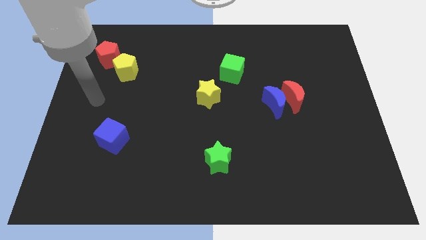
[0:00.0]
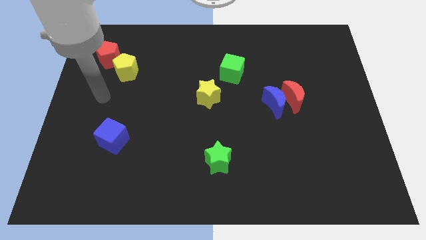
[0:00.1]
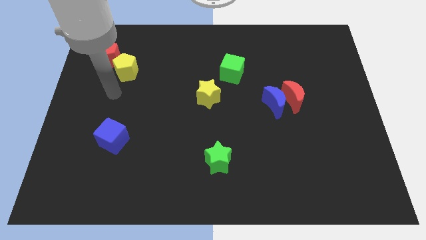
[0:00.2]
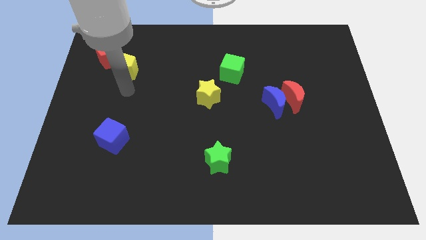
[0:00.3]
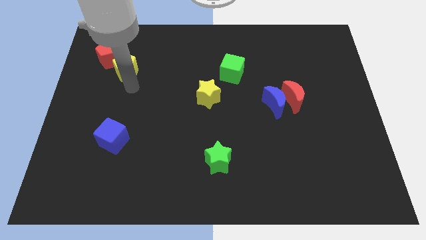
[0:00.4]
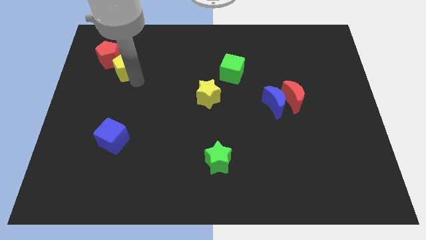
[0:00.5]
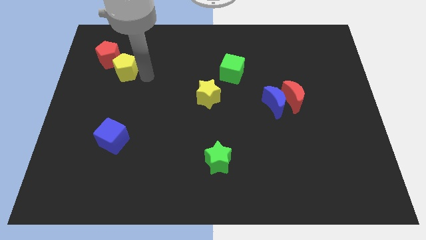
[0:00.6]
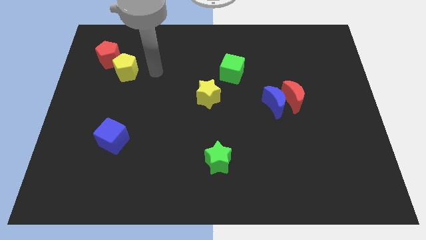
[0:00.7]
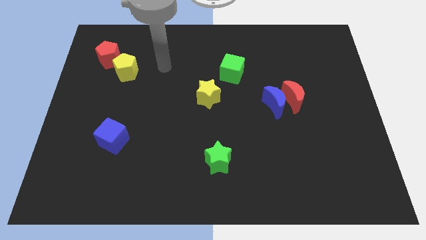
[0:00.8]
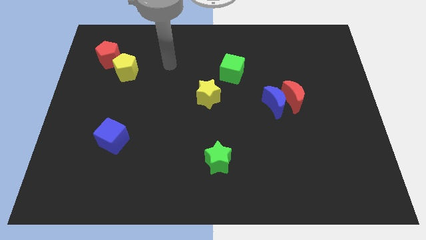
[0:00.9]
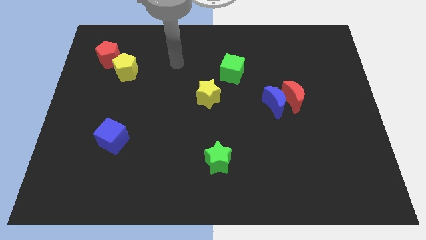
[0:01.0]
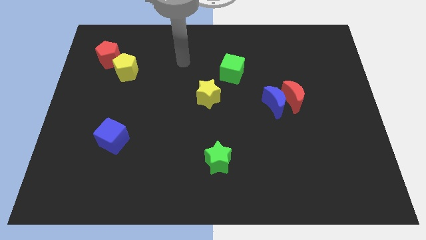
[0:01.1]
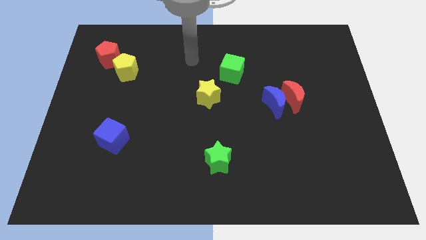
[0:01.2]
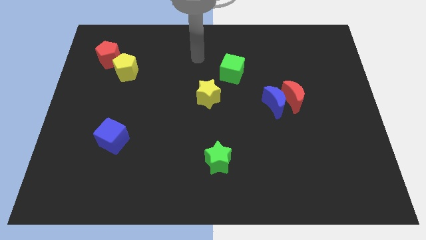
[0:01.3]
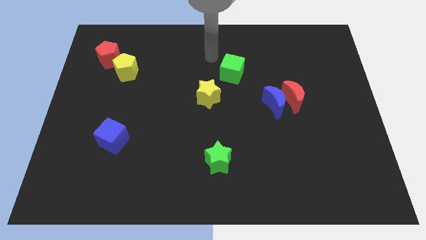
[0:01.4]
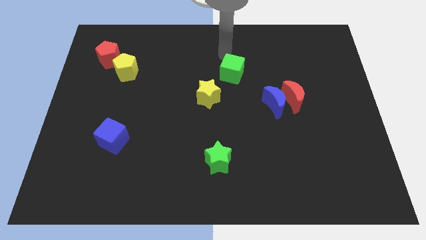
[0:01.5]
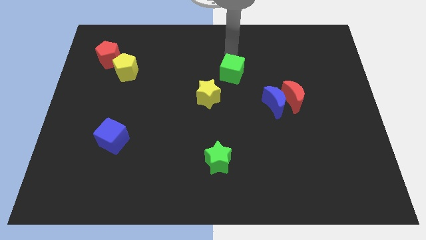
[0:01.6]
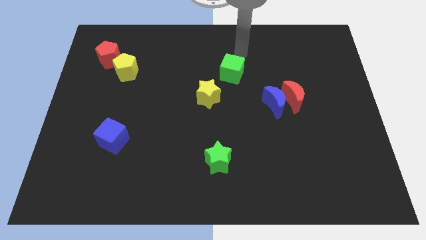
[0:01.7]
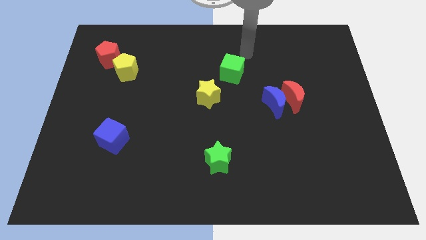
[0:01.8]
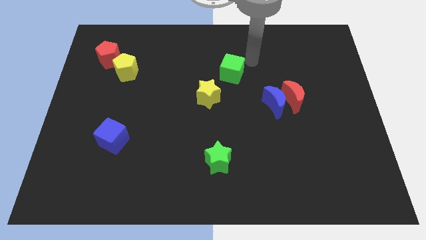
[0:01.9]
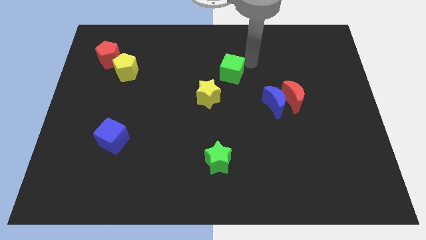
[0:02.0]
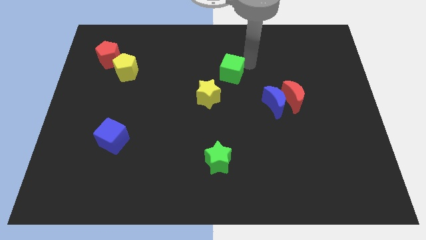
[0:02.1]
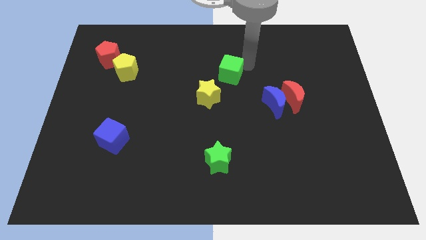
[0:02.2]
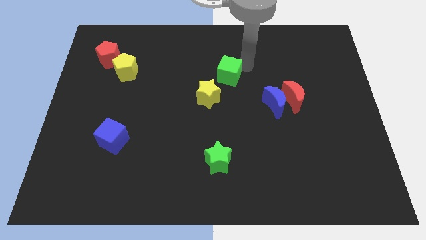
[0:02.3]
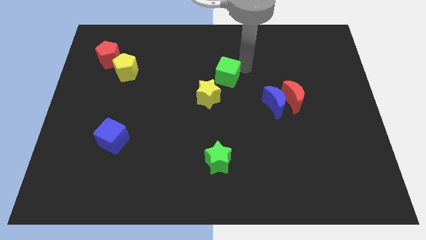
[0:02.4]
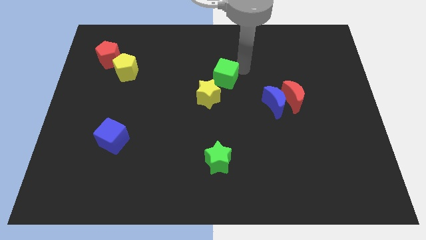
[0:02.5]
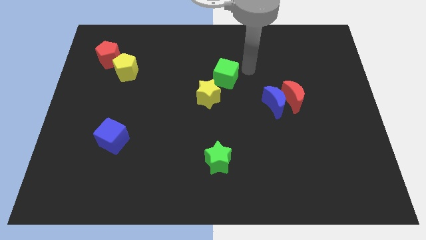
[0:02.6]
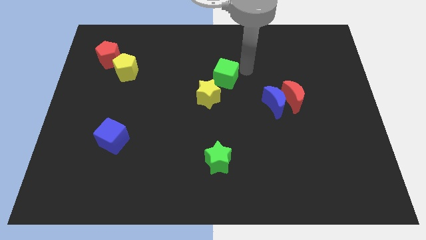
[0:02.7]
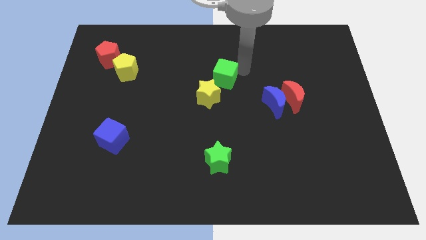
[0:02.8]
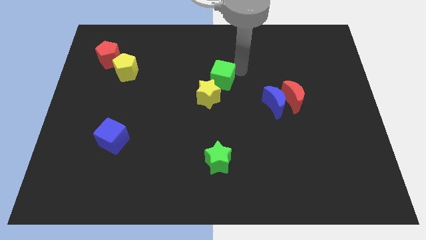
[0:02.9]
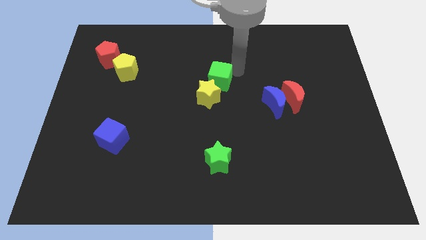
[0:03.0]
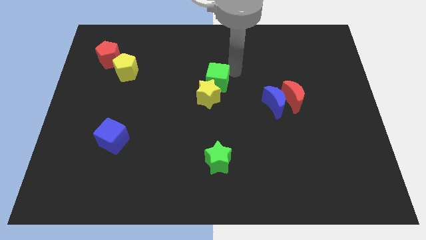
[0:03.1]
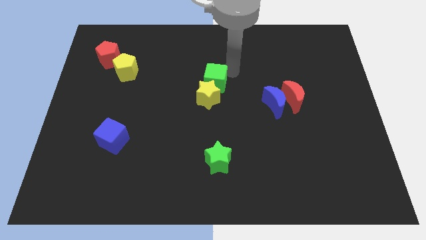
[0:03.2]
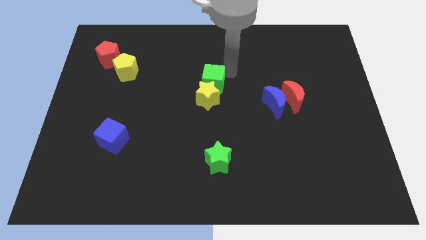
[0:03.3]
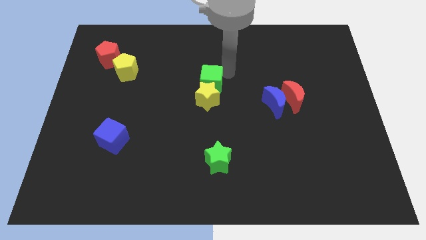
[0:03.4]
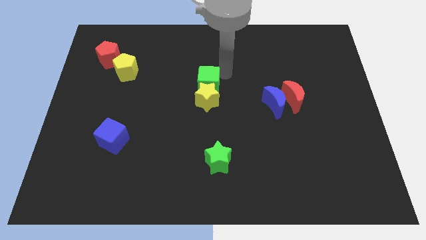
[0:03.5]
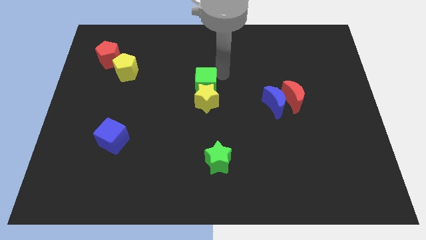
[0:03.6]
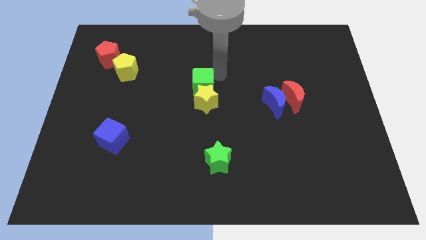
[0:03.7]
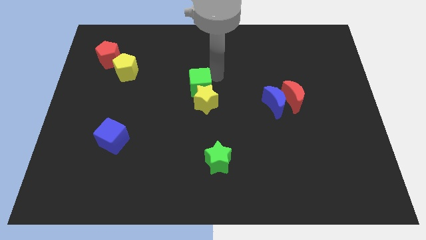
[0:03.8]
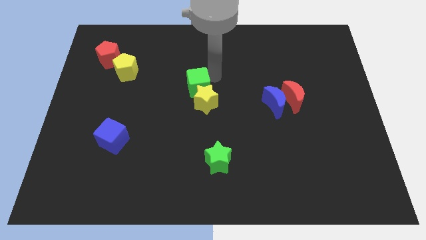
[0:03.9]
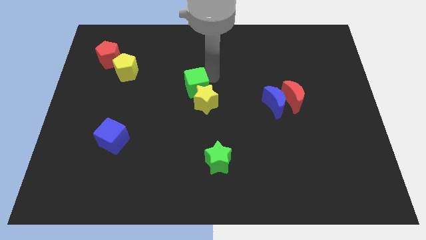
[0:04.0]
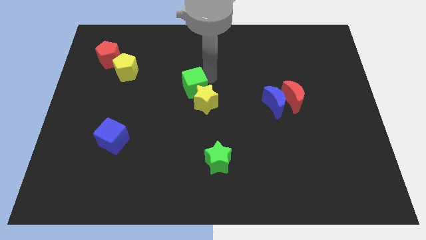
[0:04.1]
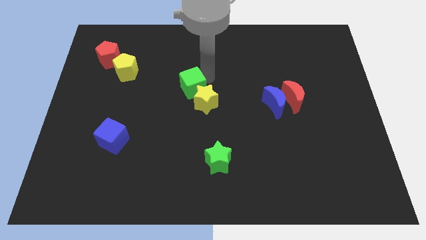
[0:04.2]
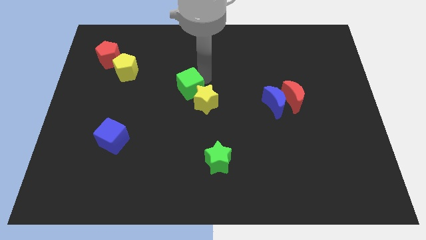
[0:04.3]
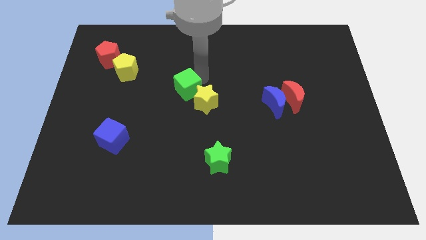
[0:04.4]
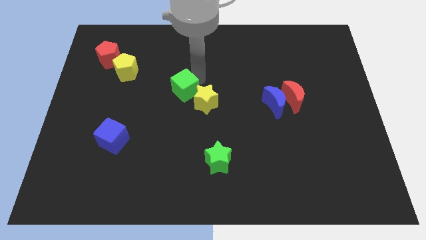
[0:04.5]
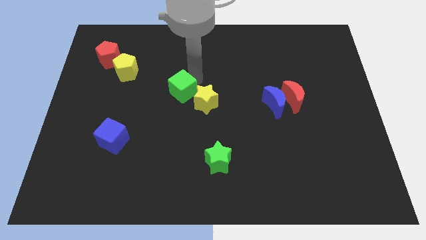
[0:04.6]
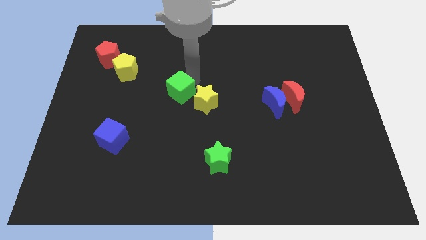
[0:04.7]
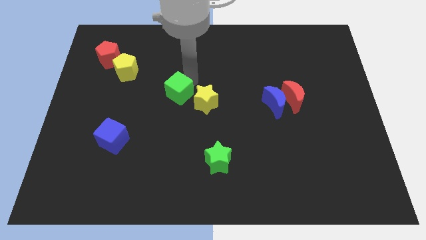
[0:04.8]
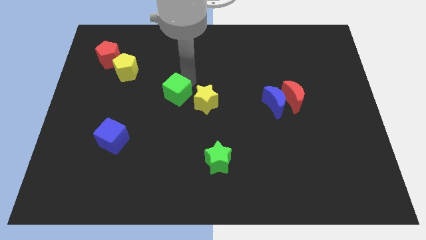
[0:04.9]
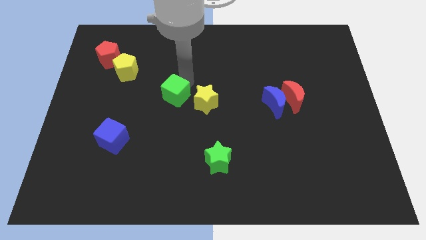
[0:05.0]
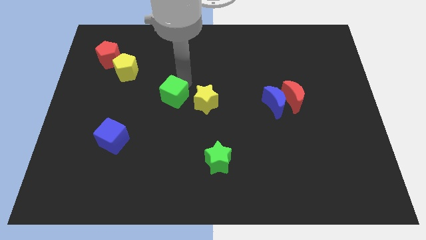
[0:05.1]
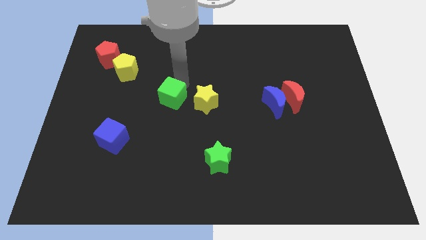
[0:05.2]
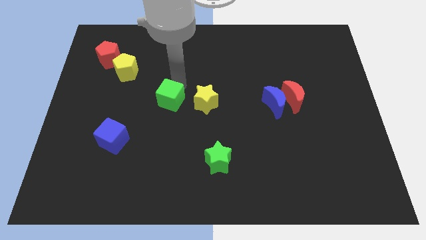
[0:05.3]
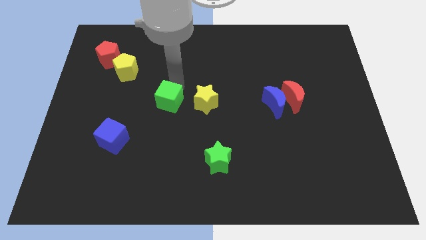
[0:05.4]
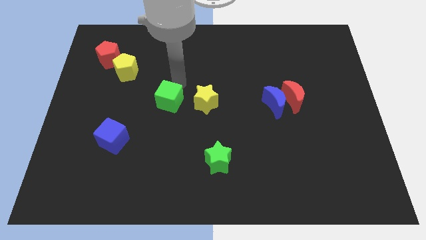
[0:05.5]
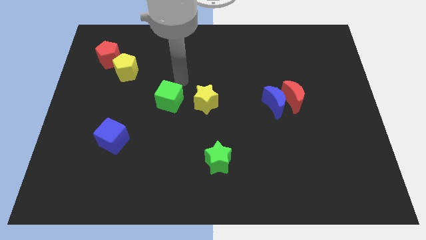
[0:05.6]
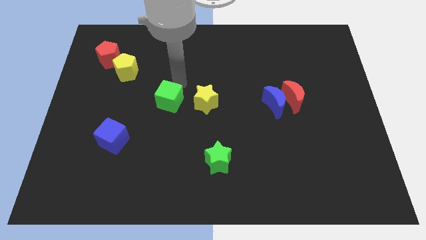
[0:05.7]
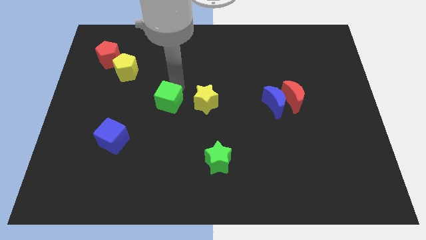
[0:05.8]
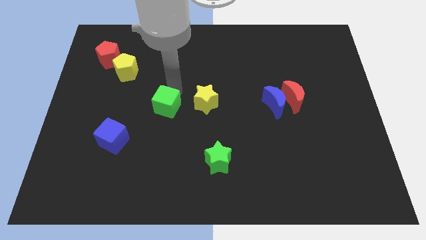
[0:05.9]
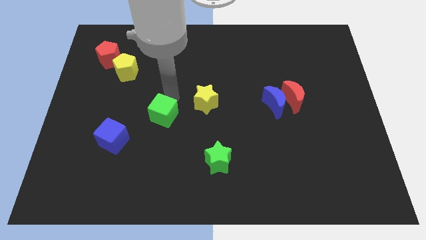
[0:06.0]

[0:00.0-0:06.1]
move the green cube down and to the left diagonally

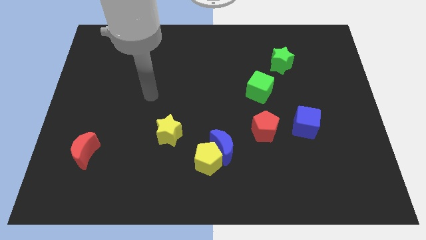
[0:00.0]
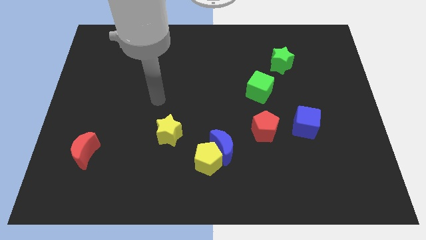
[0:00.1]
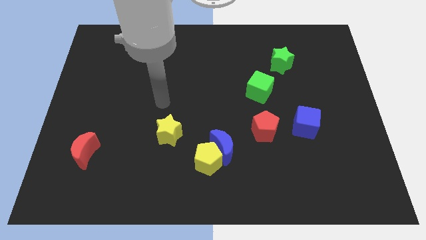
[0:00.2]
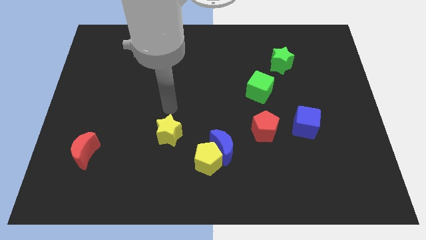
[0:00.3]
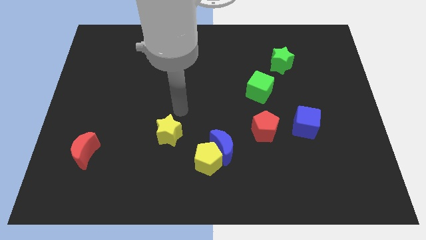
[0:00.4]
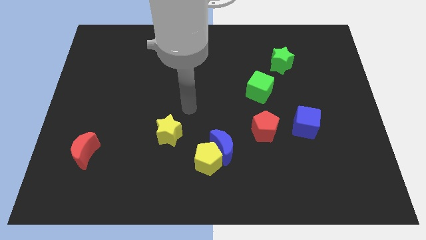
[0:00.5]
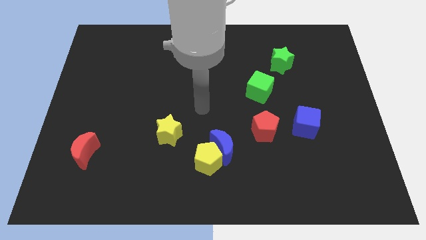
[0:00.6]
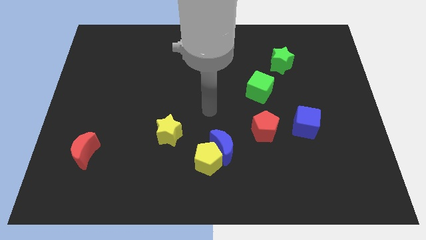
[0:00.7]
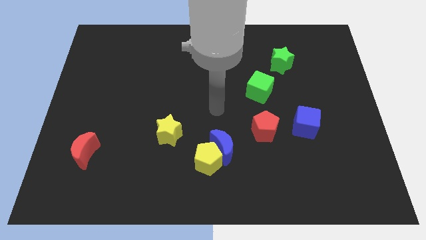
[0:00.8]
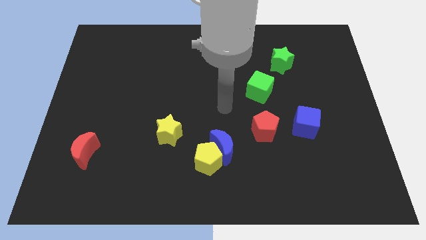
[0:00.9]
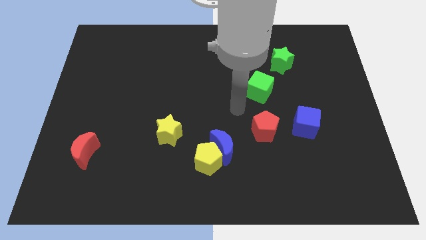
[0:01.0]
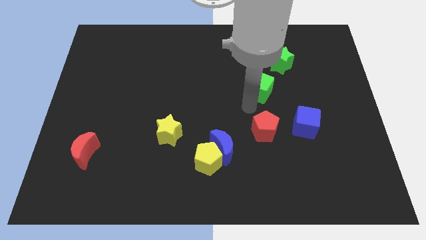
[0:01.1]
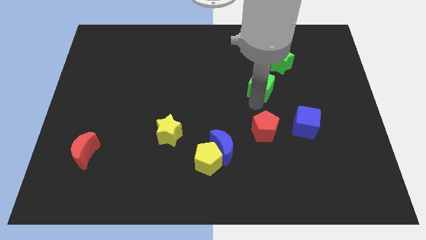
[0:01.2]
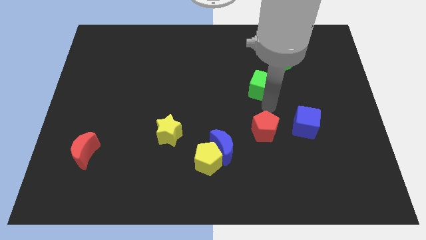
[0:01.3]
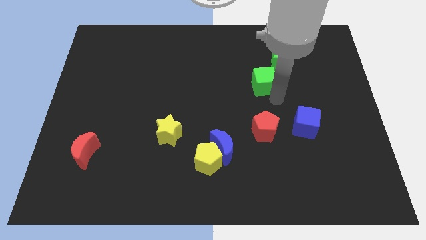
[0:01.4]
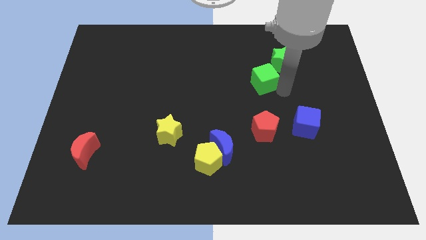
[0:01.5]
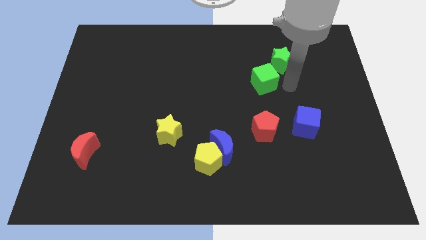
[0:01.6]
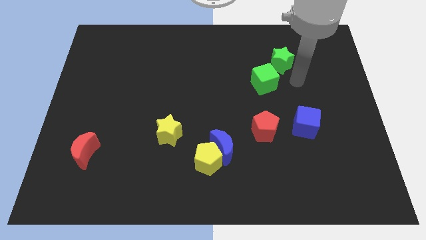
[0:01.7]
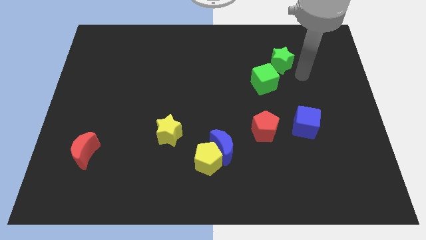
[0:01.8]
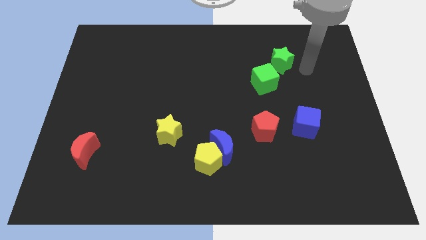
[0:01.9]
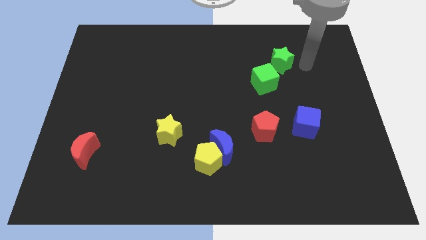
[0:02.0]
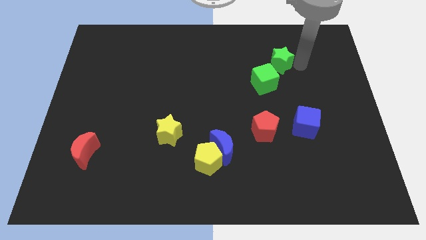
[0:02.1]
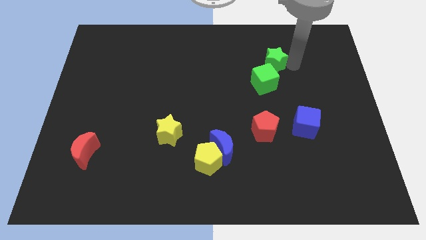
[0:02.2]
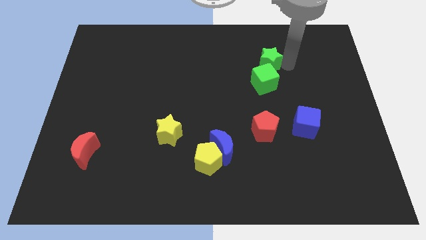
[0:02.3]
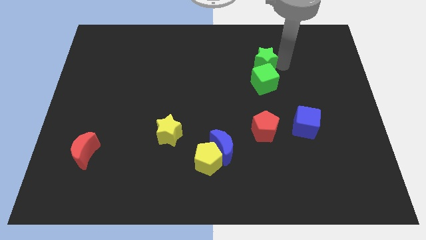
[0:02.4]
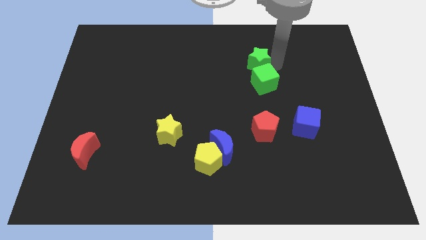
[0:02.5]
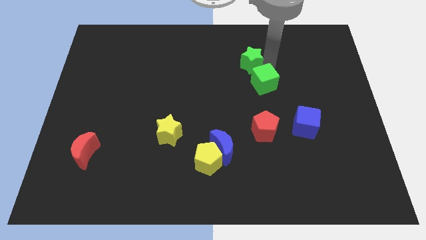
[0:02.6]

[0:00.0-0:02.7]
move the green star a little to the left
